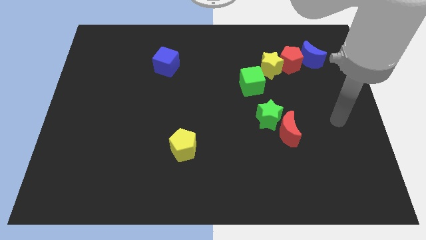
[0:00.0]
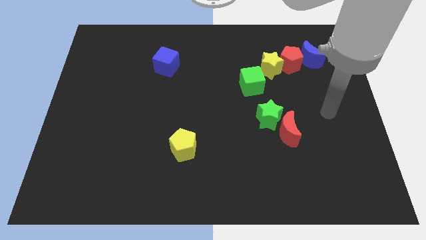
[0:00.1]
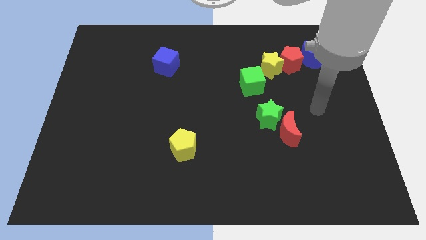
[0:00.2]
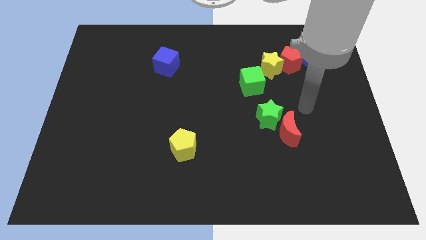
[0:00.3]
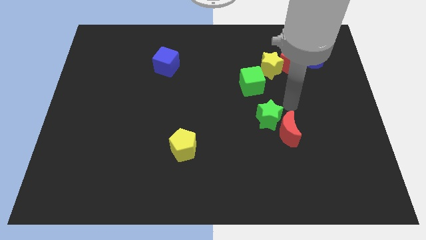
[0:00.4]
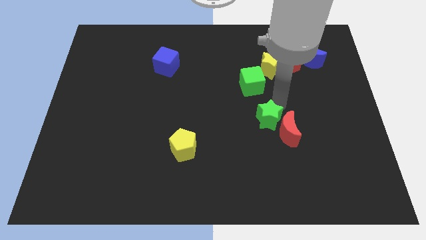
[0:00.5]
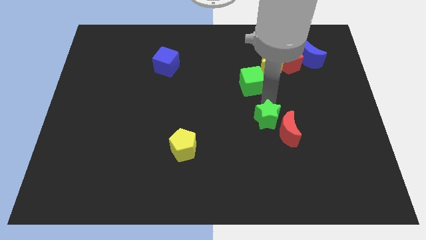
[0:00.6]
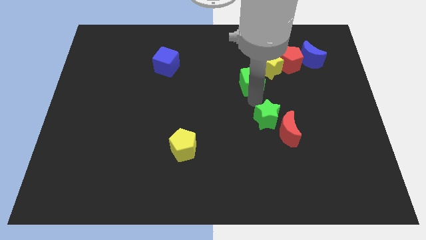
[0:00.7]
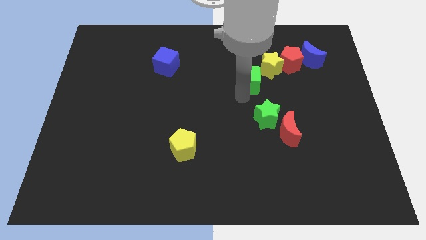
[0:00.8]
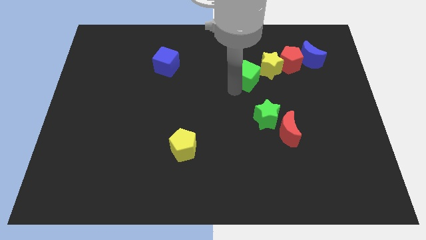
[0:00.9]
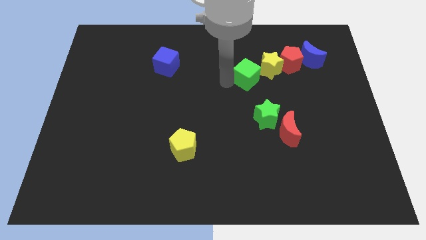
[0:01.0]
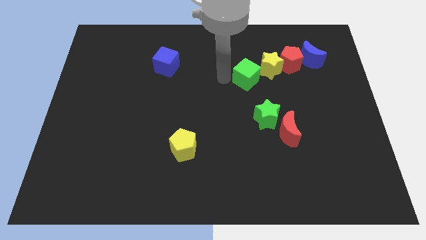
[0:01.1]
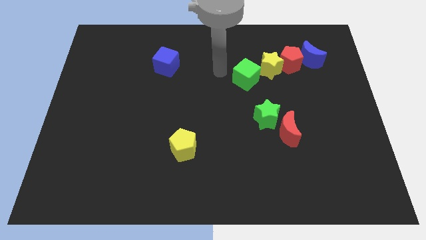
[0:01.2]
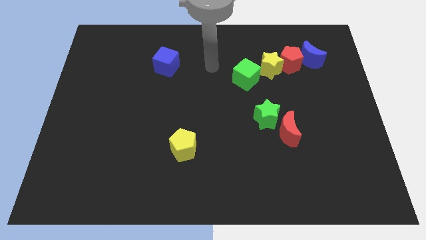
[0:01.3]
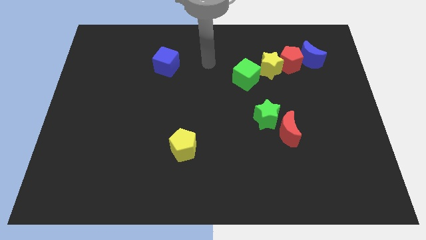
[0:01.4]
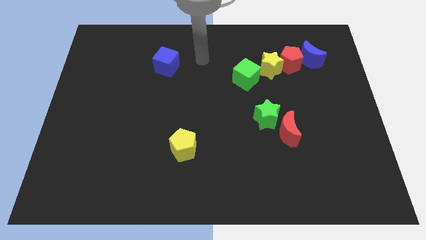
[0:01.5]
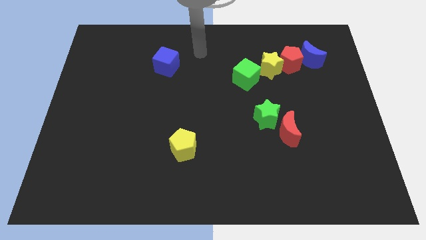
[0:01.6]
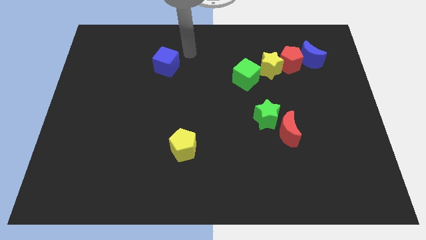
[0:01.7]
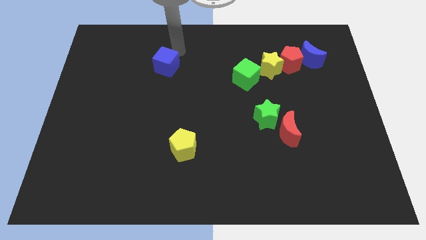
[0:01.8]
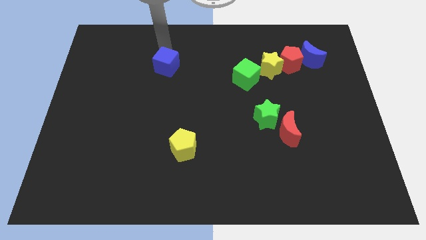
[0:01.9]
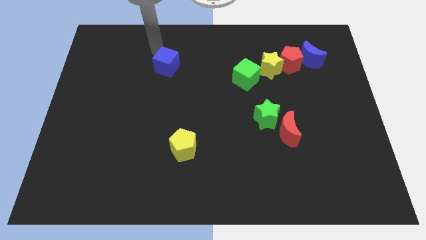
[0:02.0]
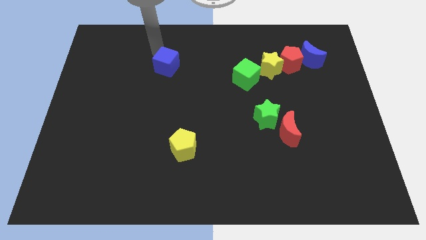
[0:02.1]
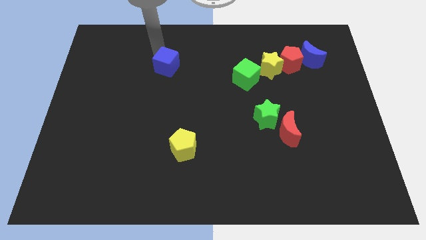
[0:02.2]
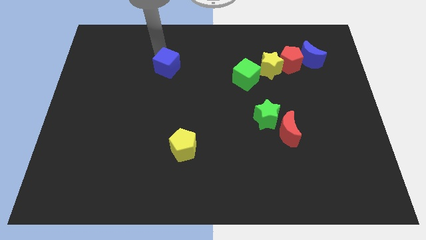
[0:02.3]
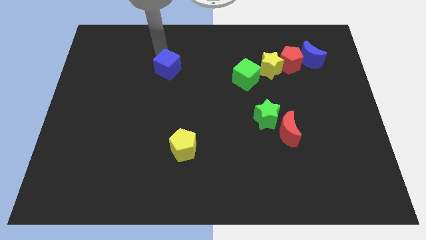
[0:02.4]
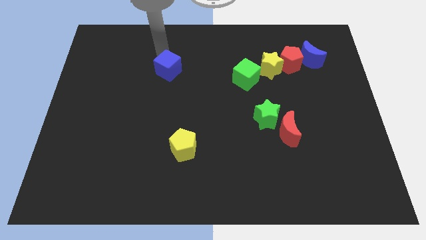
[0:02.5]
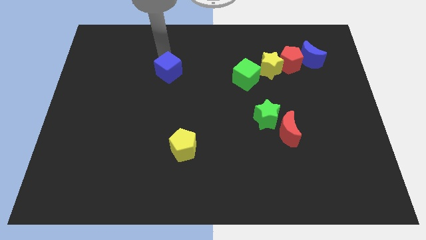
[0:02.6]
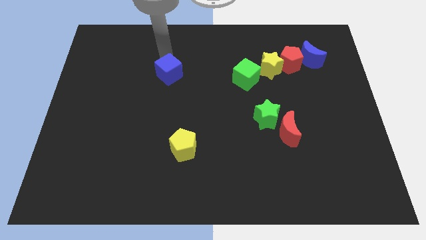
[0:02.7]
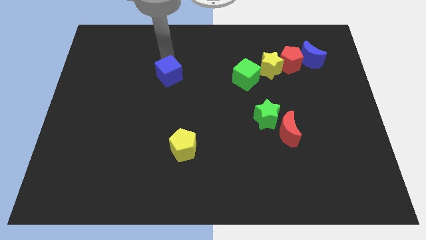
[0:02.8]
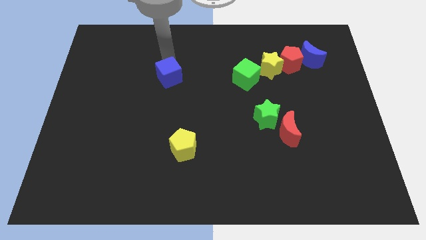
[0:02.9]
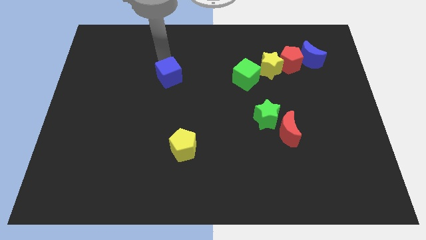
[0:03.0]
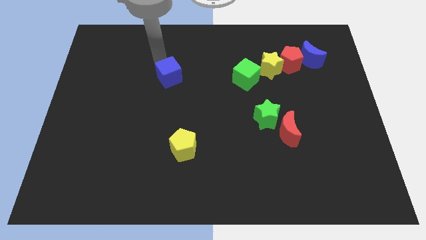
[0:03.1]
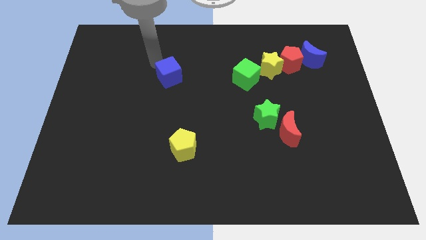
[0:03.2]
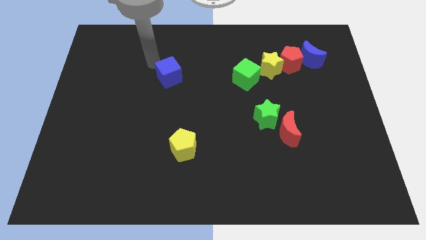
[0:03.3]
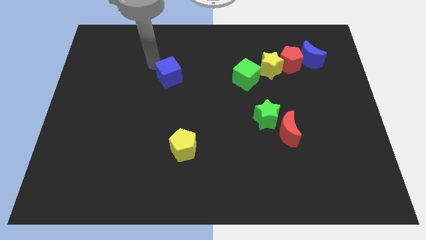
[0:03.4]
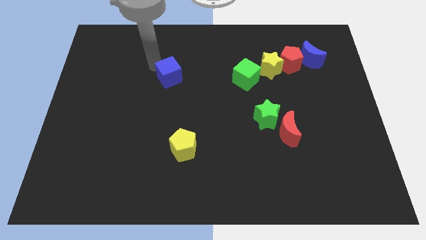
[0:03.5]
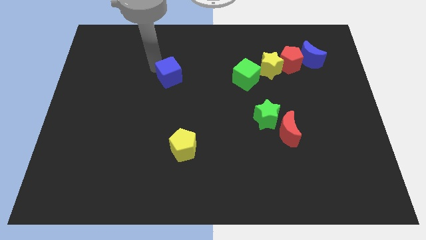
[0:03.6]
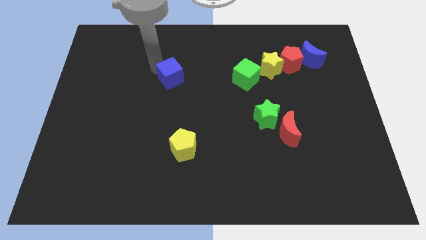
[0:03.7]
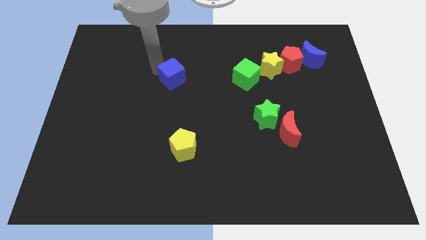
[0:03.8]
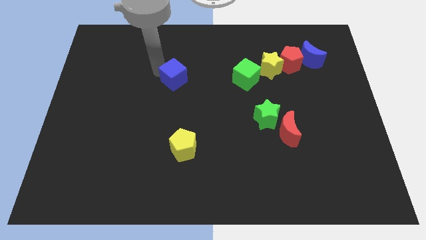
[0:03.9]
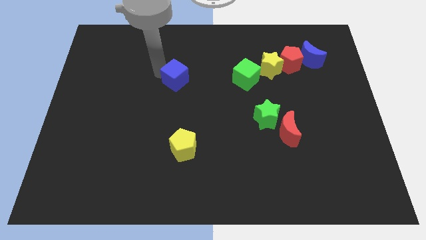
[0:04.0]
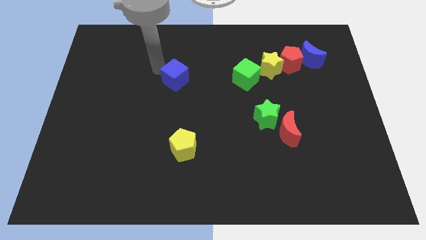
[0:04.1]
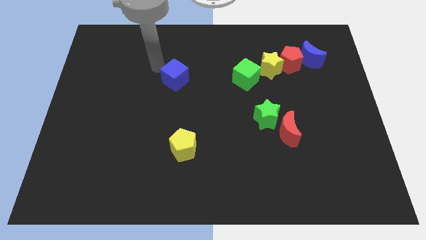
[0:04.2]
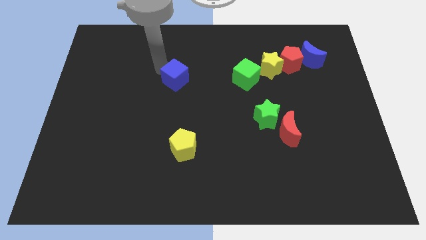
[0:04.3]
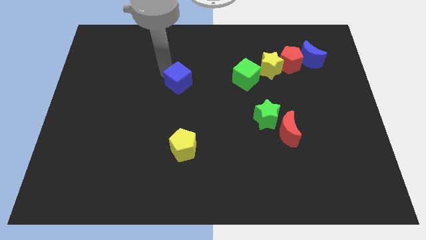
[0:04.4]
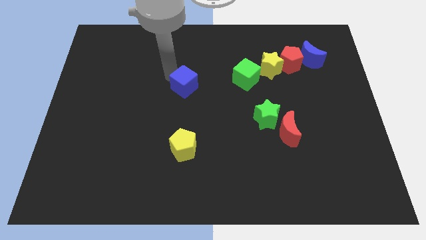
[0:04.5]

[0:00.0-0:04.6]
push the blue cube downwards and to the right diagonally a little

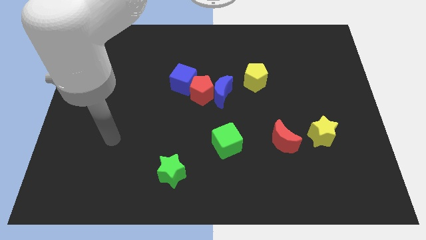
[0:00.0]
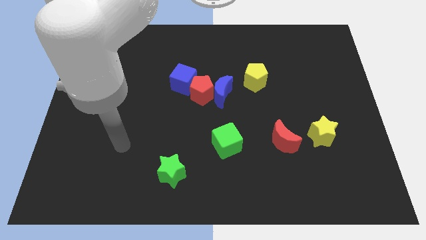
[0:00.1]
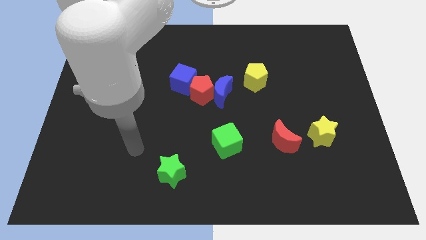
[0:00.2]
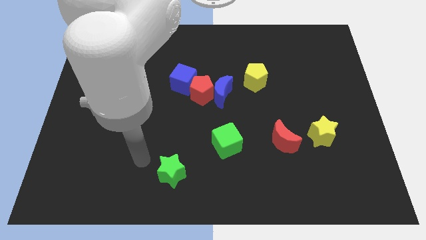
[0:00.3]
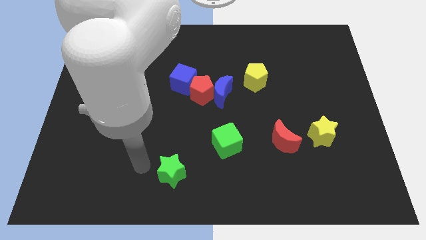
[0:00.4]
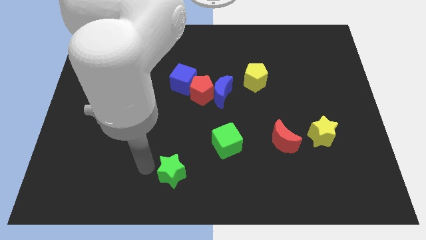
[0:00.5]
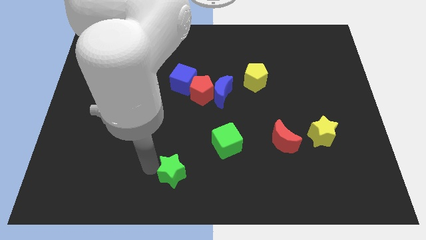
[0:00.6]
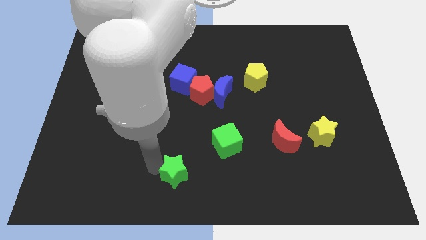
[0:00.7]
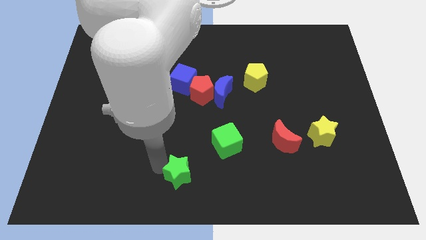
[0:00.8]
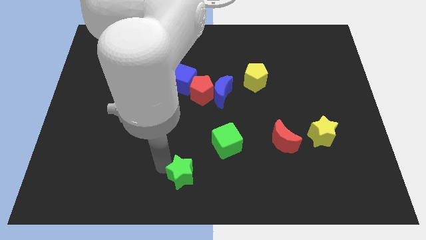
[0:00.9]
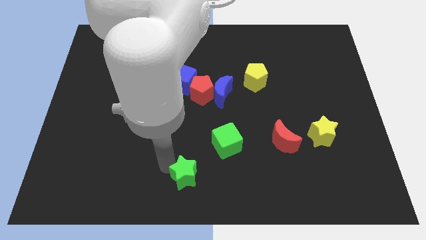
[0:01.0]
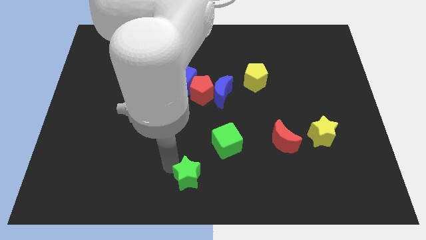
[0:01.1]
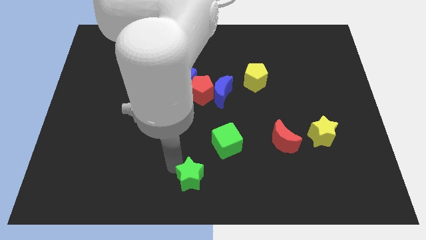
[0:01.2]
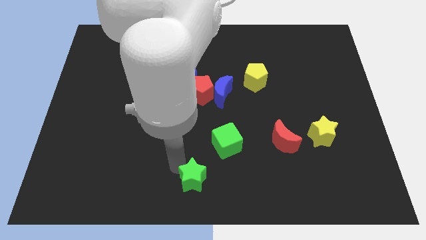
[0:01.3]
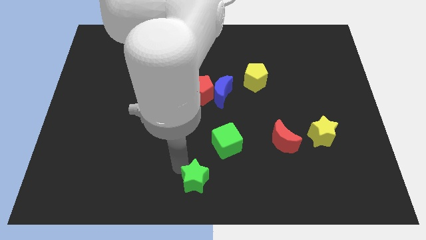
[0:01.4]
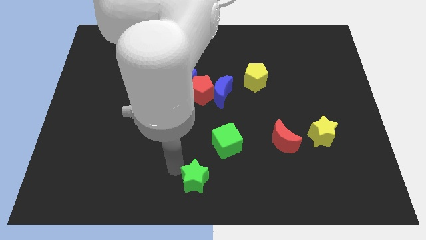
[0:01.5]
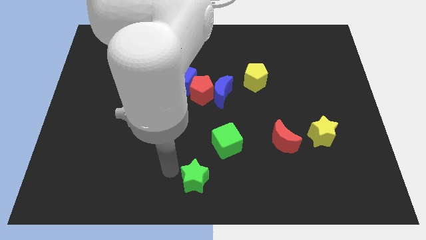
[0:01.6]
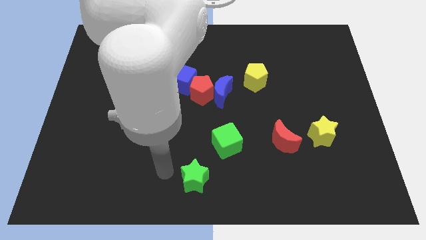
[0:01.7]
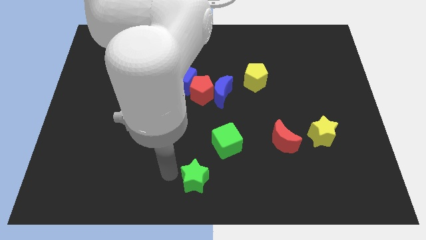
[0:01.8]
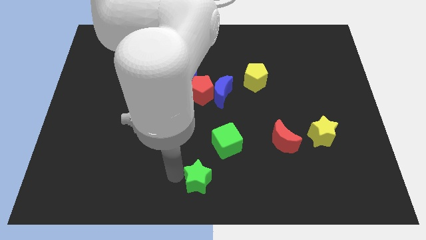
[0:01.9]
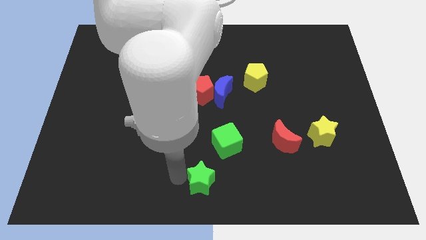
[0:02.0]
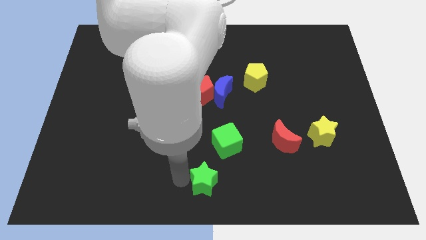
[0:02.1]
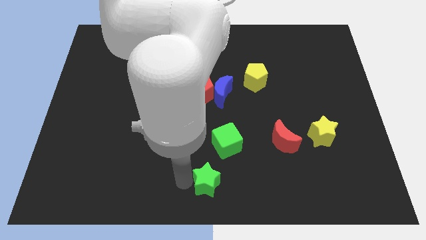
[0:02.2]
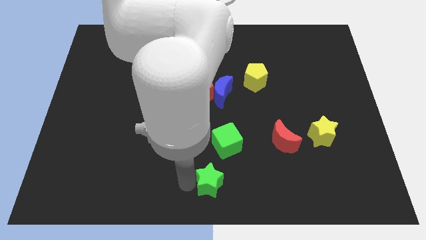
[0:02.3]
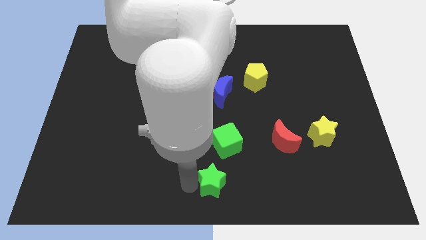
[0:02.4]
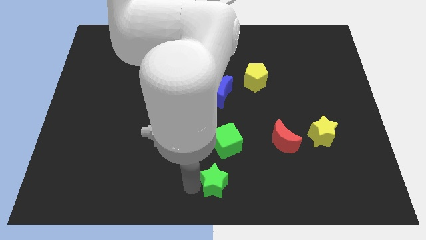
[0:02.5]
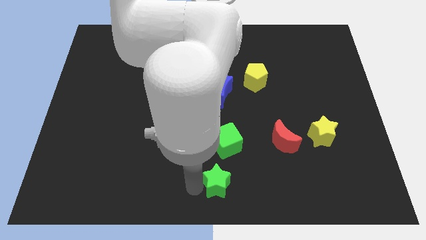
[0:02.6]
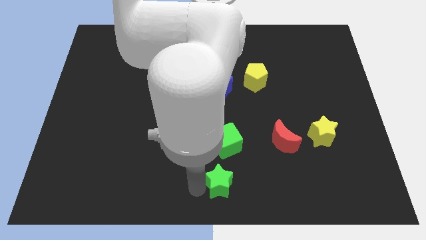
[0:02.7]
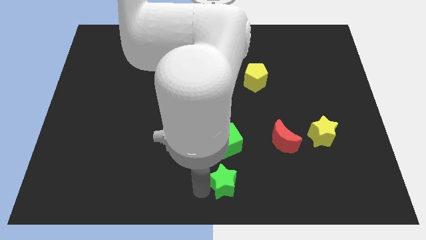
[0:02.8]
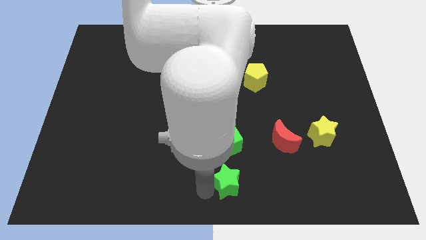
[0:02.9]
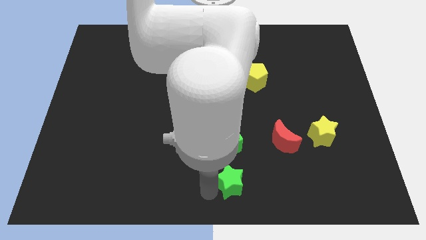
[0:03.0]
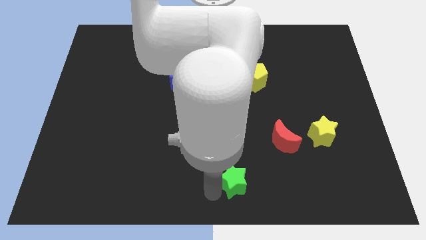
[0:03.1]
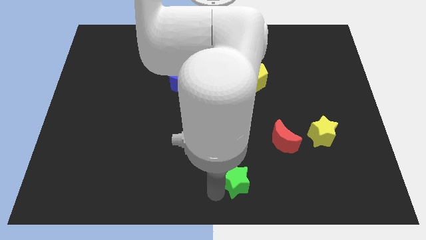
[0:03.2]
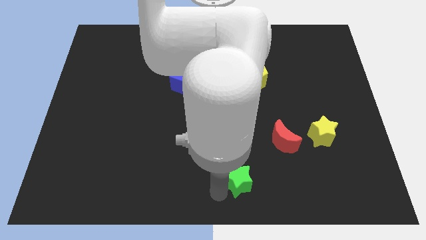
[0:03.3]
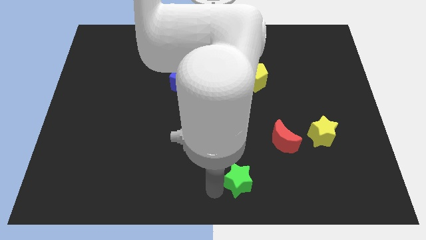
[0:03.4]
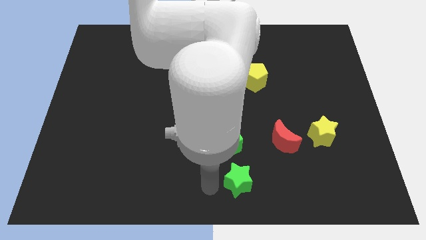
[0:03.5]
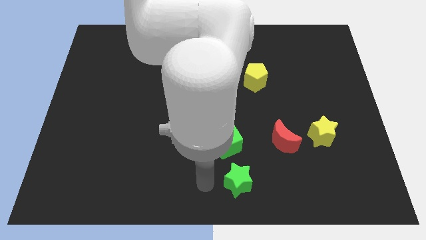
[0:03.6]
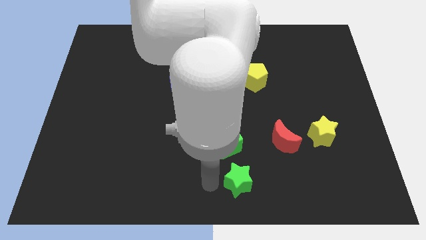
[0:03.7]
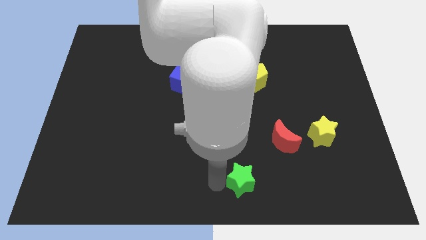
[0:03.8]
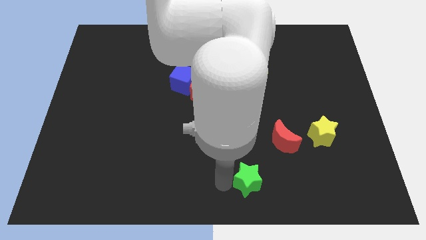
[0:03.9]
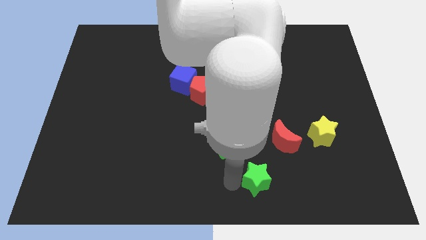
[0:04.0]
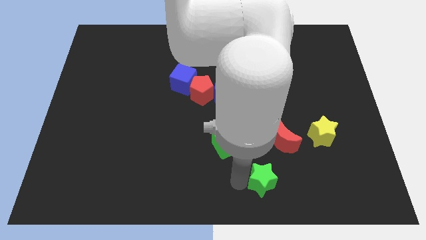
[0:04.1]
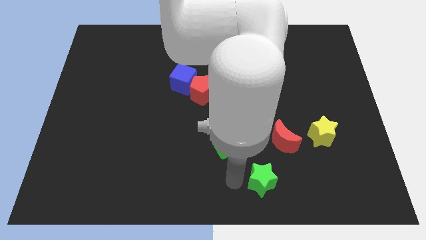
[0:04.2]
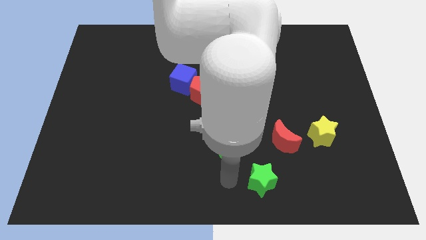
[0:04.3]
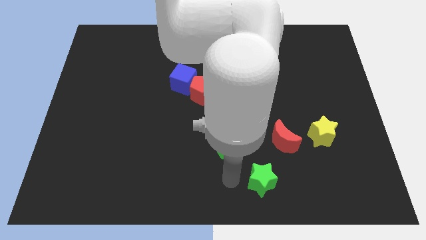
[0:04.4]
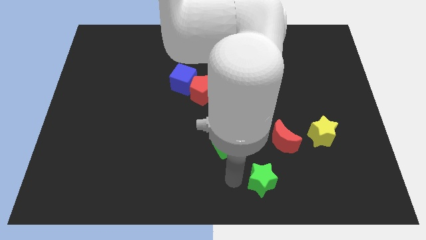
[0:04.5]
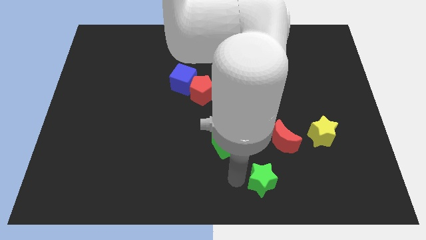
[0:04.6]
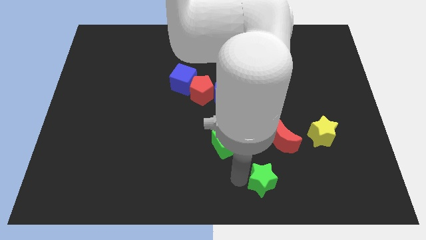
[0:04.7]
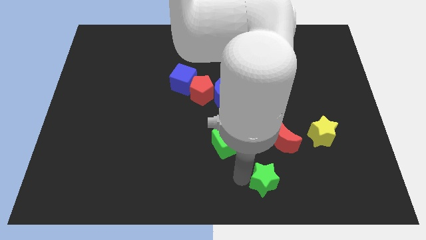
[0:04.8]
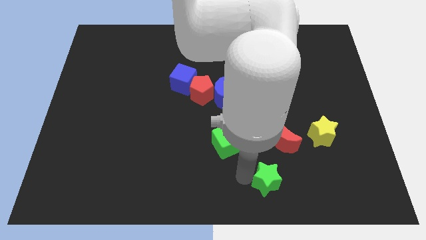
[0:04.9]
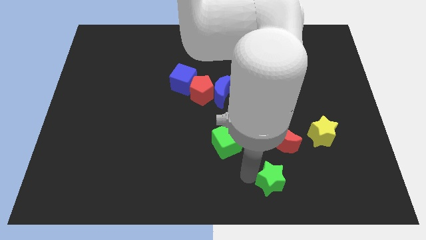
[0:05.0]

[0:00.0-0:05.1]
move the green star right
